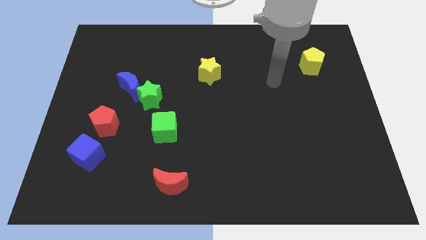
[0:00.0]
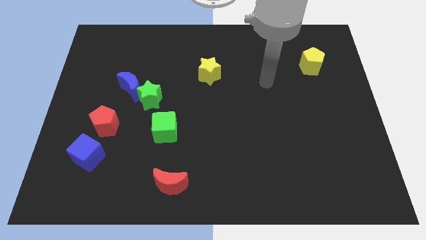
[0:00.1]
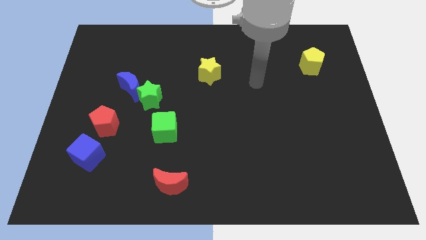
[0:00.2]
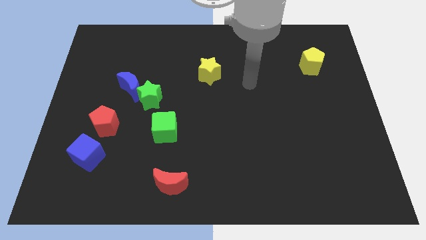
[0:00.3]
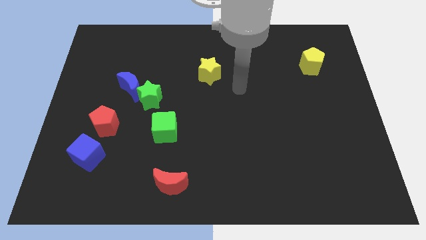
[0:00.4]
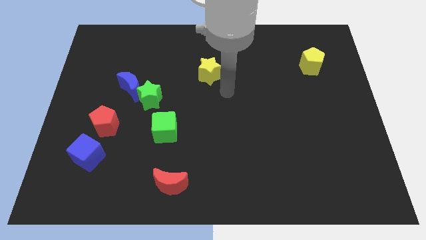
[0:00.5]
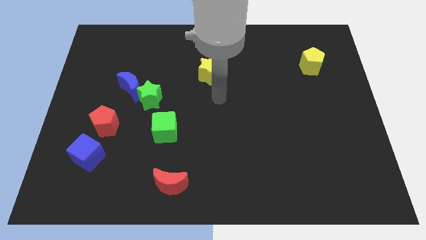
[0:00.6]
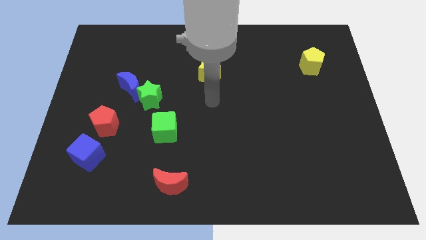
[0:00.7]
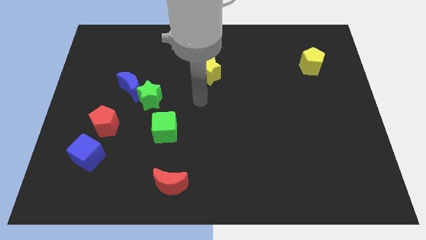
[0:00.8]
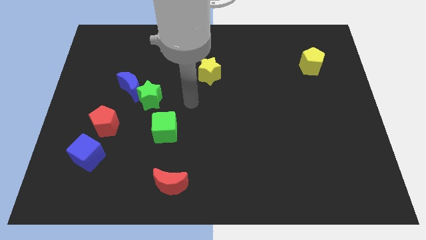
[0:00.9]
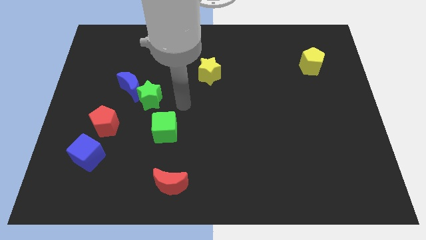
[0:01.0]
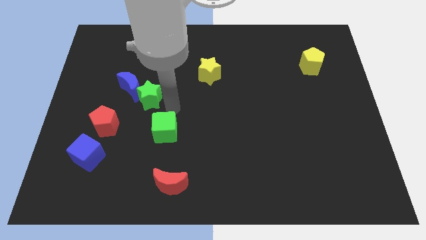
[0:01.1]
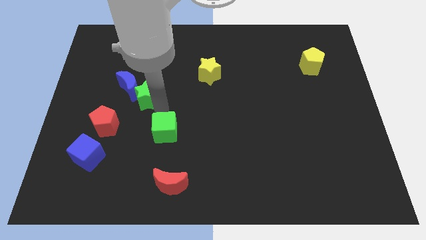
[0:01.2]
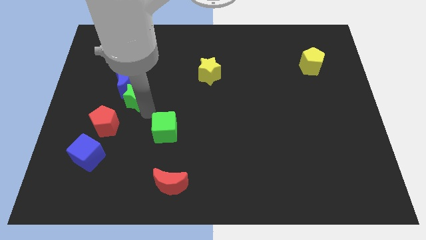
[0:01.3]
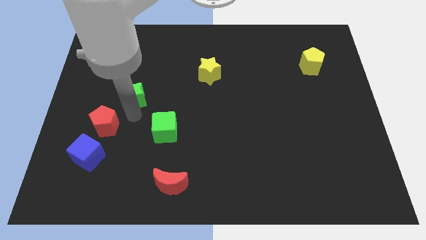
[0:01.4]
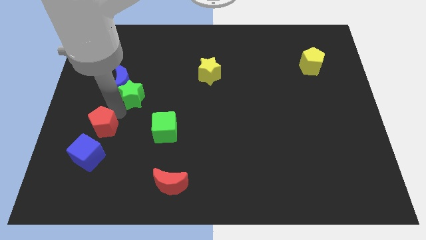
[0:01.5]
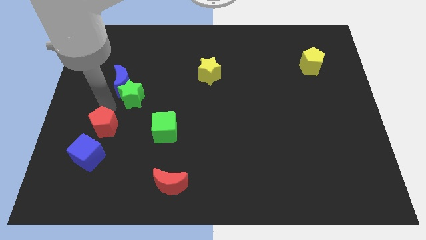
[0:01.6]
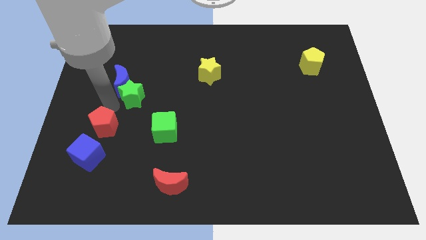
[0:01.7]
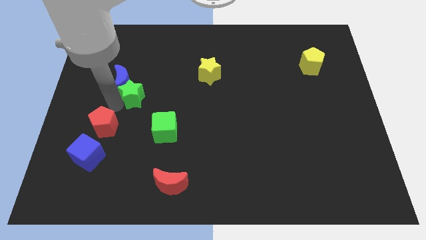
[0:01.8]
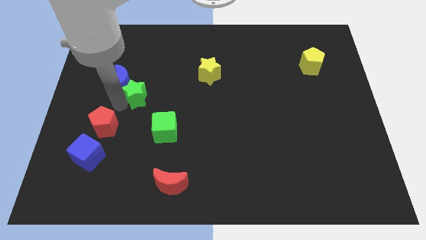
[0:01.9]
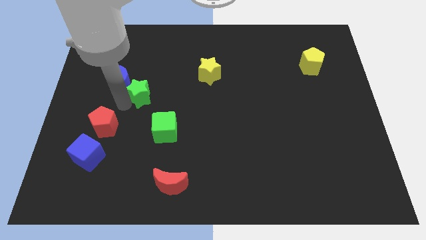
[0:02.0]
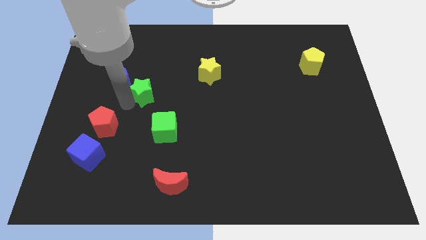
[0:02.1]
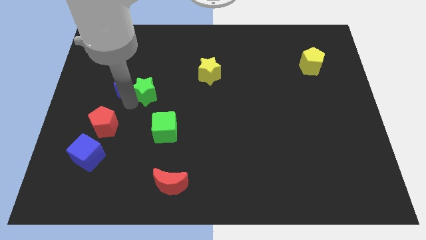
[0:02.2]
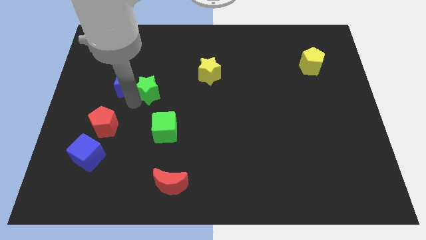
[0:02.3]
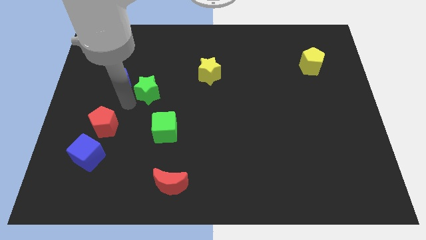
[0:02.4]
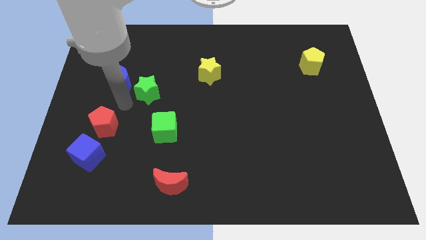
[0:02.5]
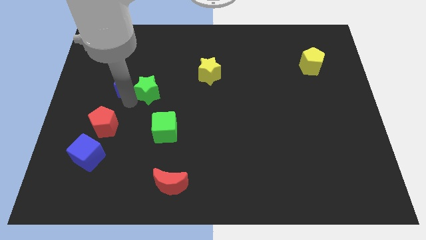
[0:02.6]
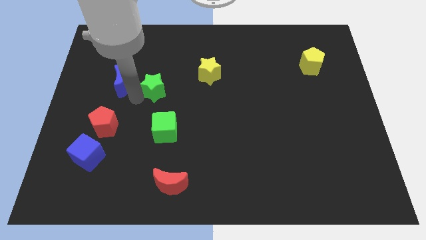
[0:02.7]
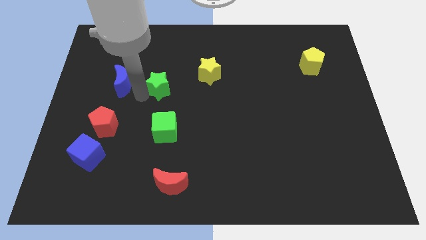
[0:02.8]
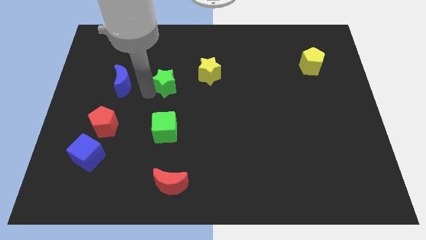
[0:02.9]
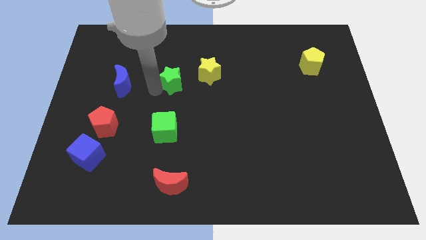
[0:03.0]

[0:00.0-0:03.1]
slightly move the green star up and then right

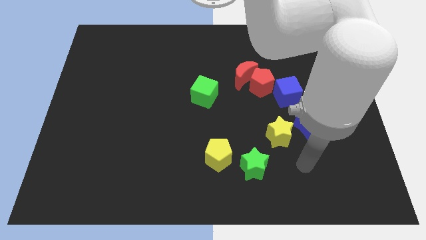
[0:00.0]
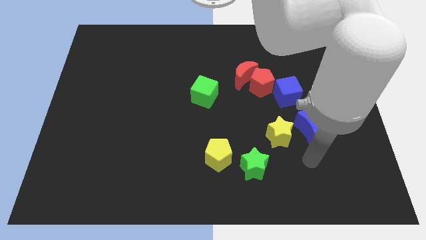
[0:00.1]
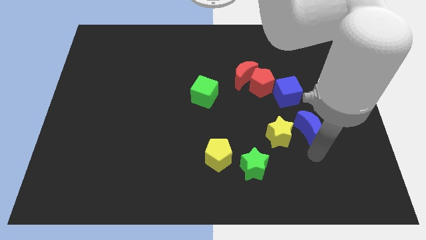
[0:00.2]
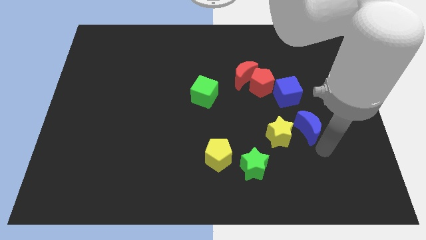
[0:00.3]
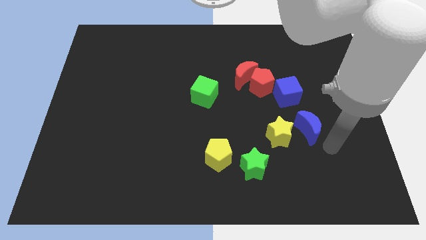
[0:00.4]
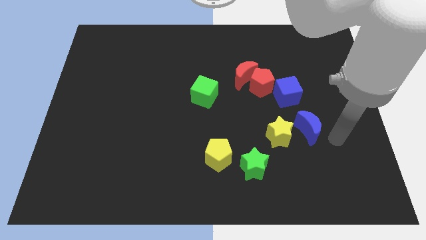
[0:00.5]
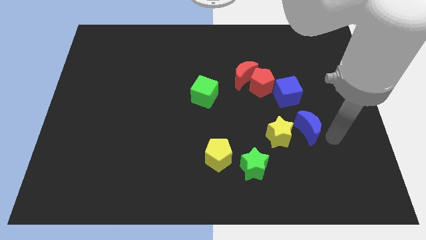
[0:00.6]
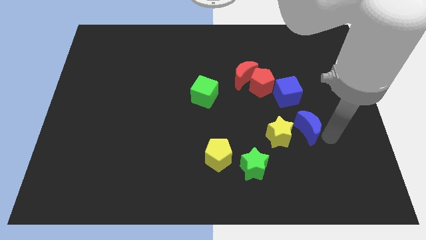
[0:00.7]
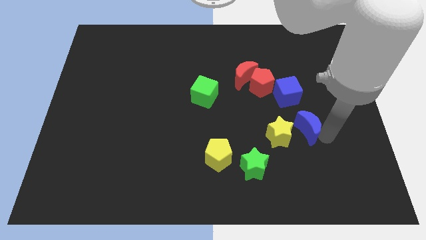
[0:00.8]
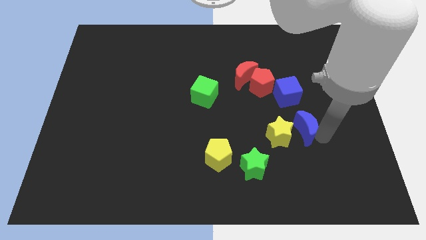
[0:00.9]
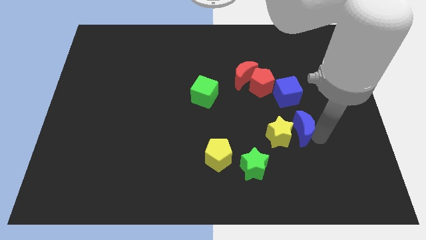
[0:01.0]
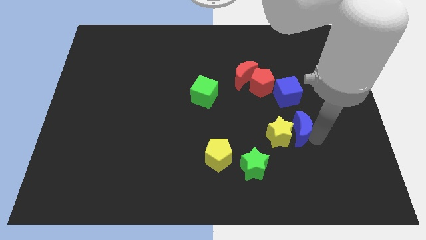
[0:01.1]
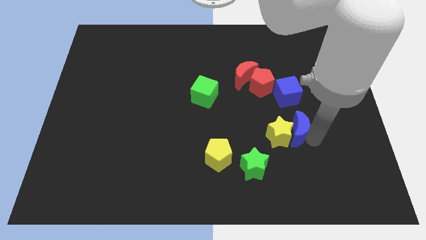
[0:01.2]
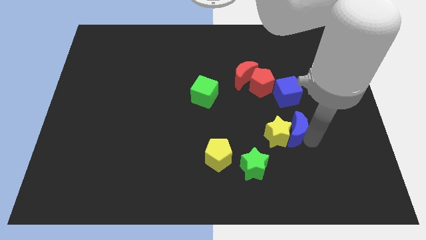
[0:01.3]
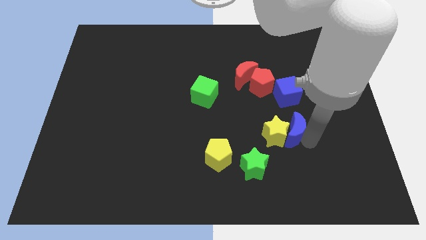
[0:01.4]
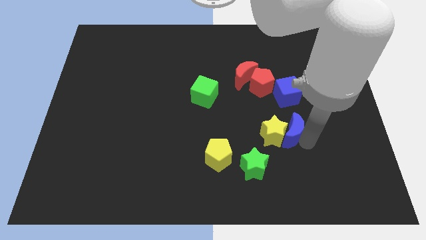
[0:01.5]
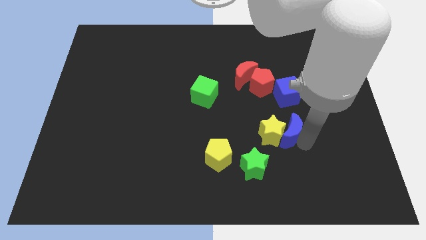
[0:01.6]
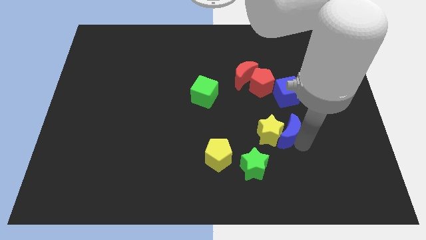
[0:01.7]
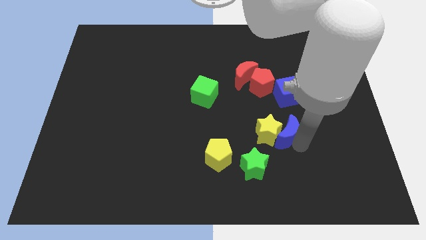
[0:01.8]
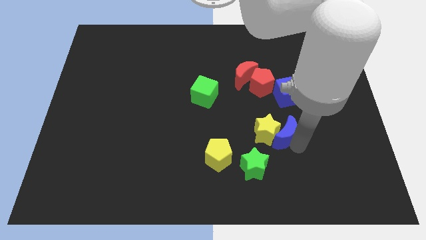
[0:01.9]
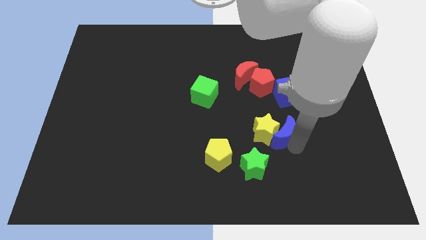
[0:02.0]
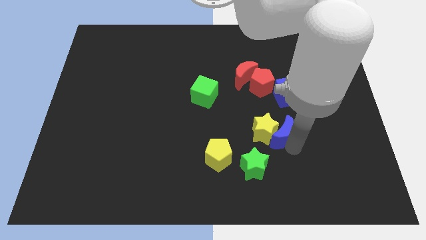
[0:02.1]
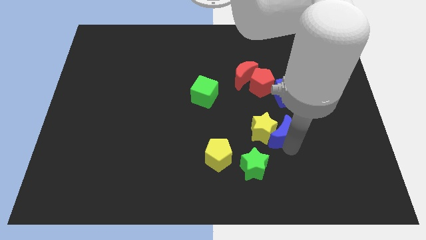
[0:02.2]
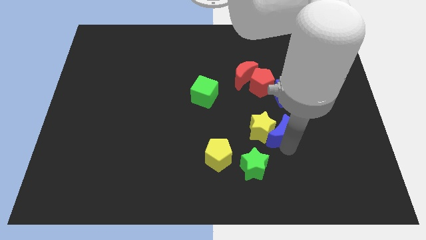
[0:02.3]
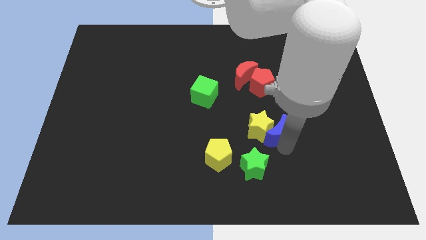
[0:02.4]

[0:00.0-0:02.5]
slightly push the blue moon left

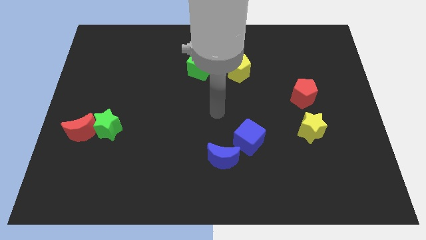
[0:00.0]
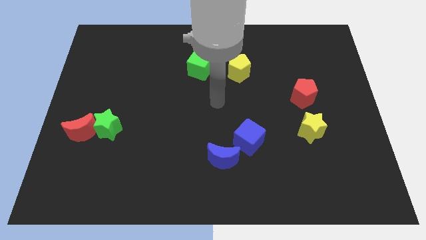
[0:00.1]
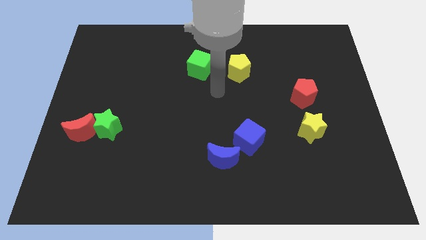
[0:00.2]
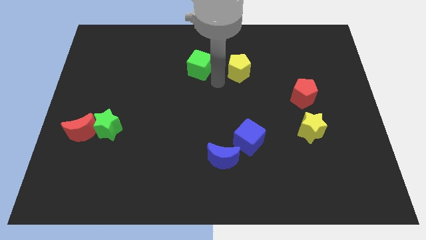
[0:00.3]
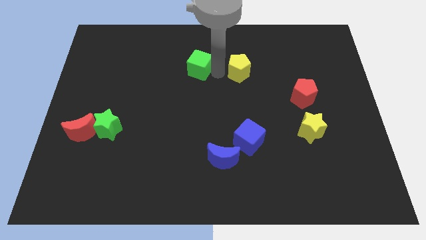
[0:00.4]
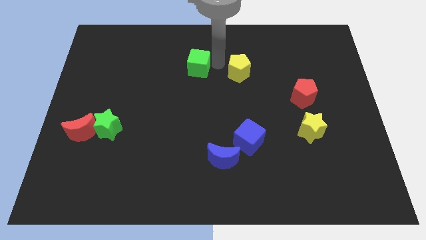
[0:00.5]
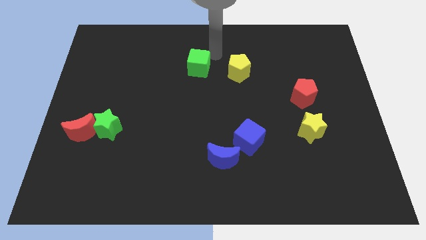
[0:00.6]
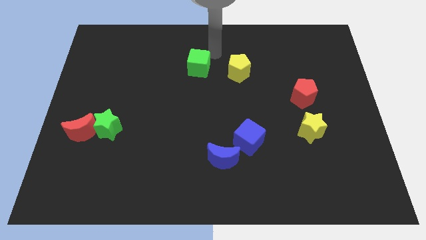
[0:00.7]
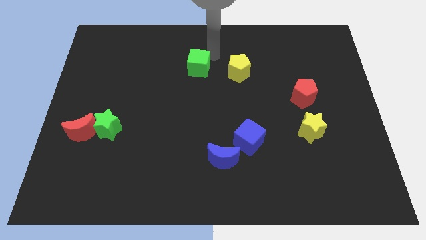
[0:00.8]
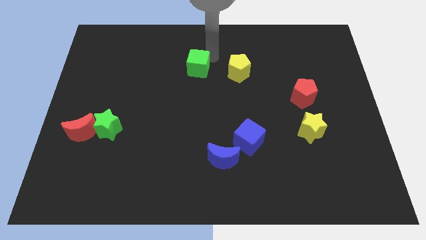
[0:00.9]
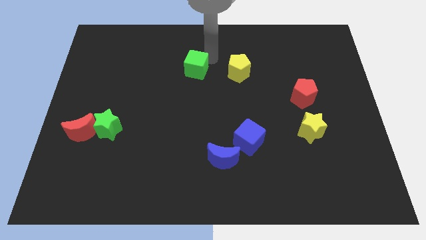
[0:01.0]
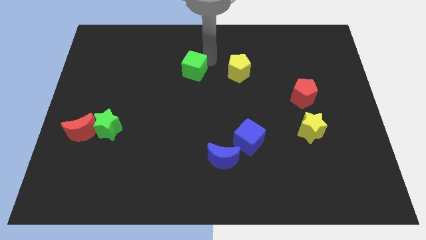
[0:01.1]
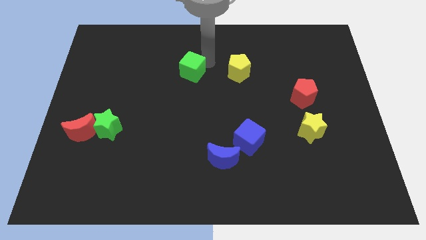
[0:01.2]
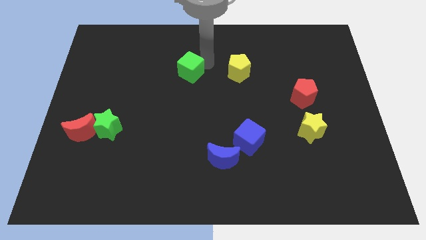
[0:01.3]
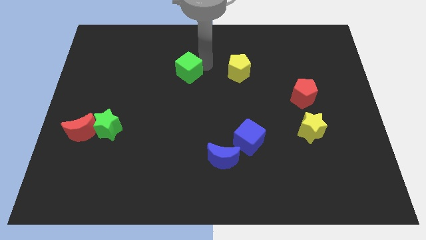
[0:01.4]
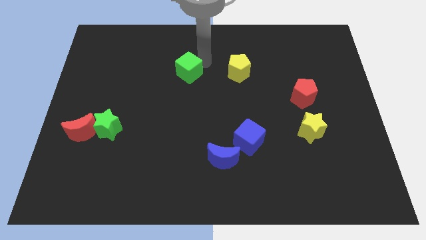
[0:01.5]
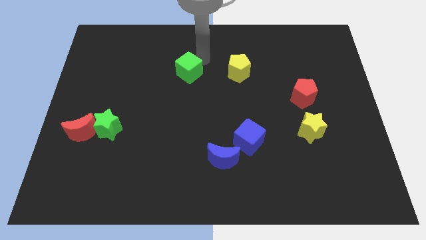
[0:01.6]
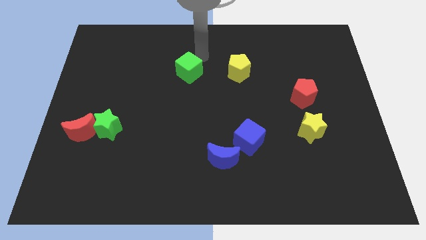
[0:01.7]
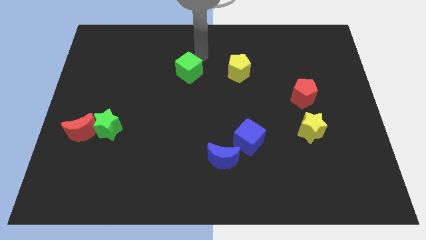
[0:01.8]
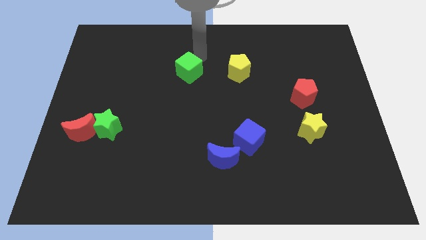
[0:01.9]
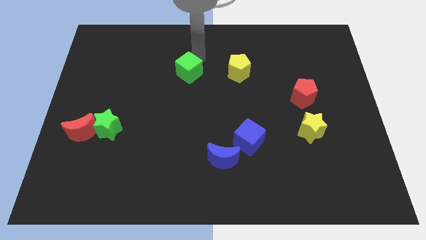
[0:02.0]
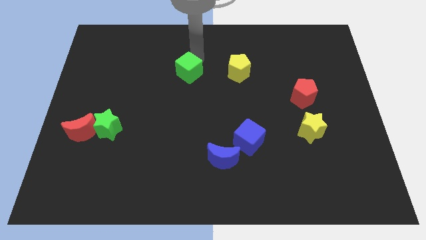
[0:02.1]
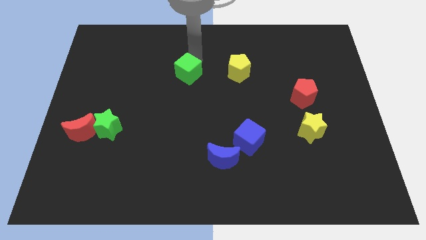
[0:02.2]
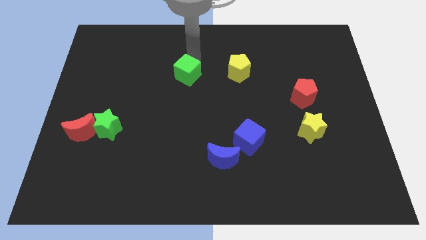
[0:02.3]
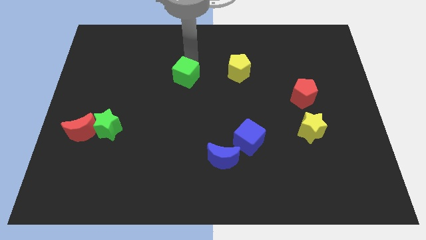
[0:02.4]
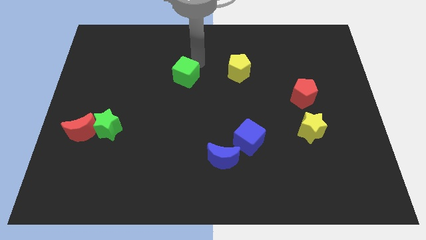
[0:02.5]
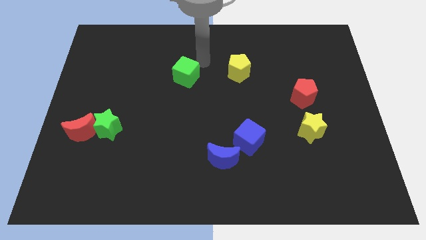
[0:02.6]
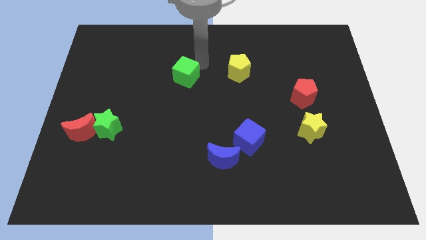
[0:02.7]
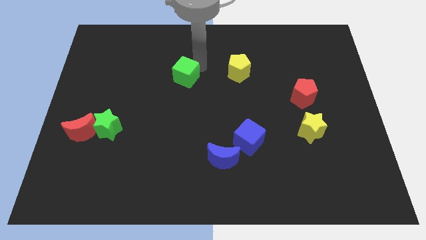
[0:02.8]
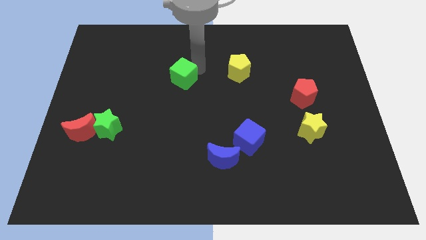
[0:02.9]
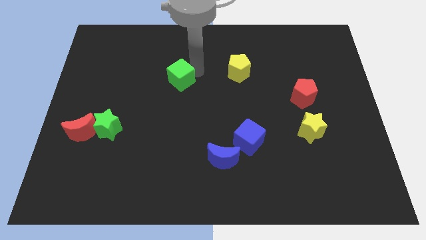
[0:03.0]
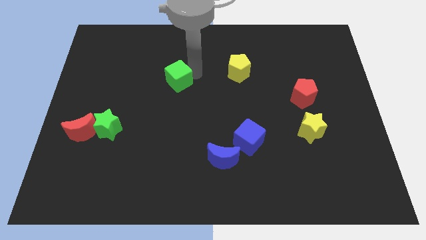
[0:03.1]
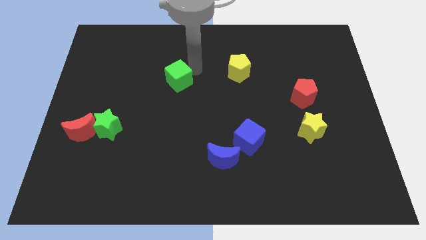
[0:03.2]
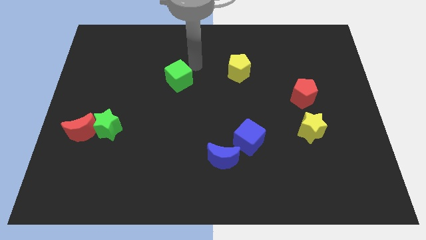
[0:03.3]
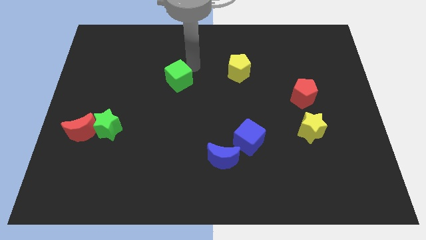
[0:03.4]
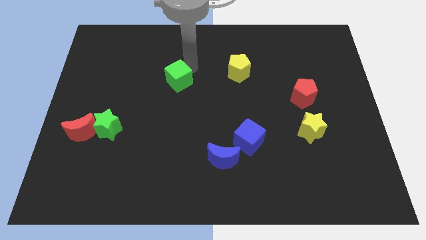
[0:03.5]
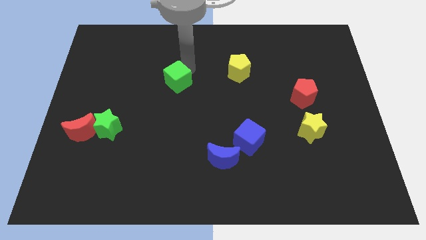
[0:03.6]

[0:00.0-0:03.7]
move the green cube a little bit down and then left
